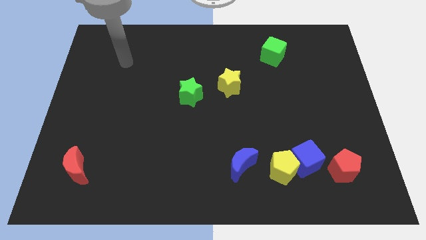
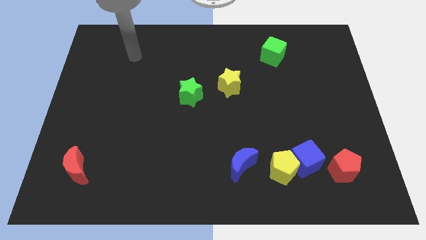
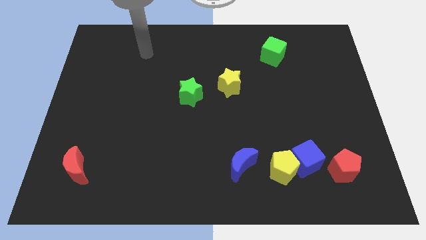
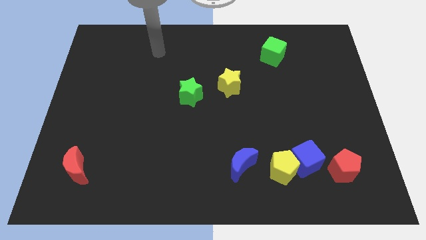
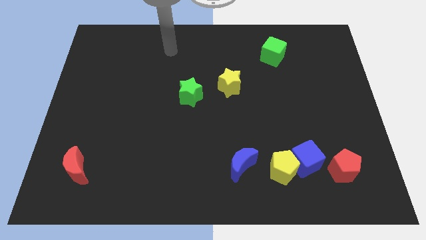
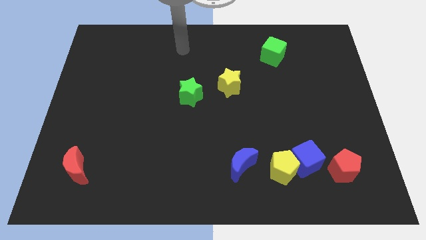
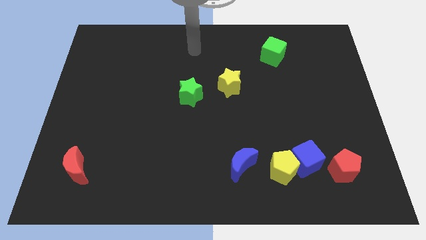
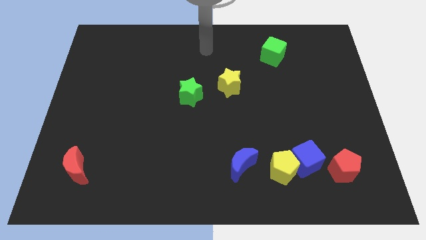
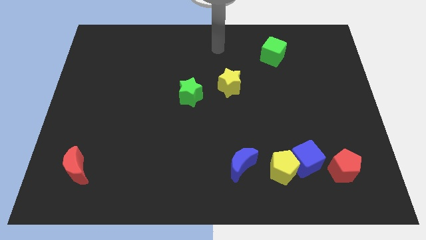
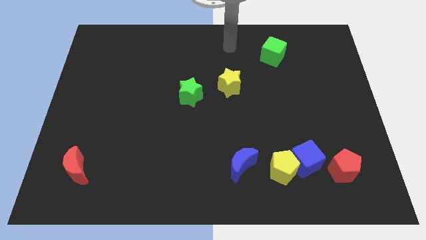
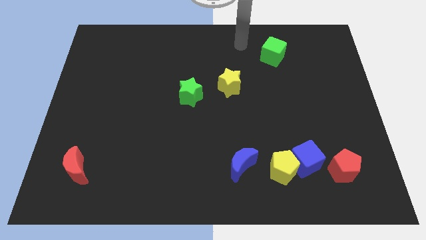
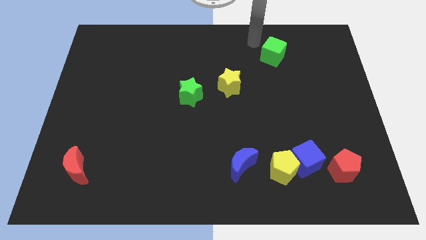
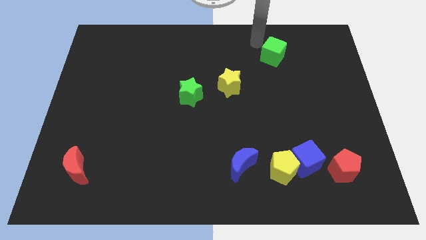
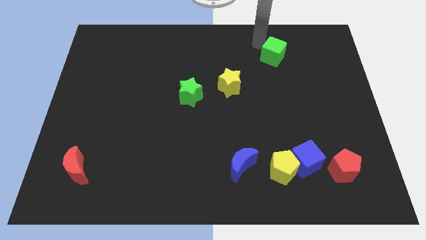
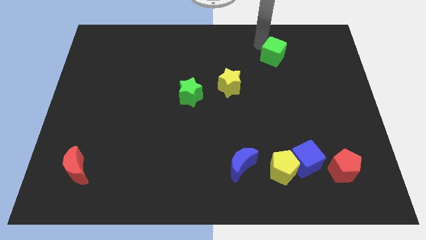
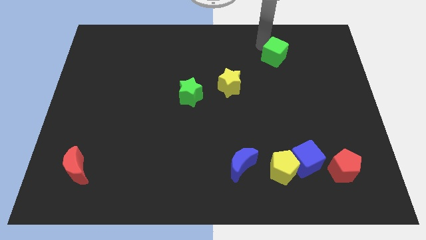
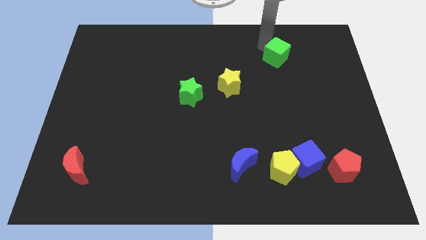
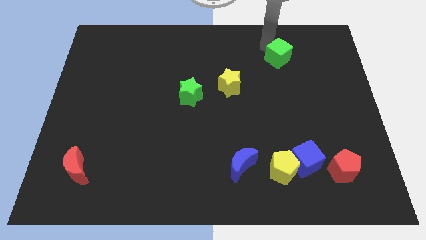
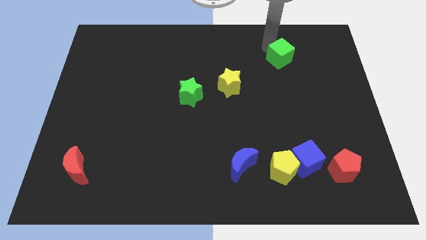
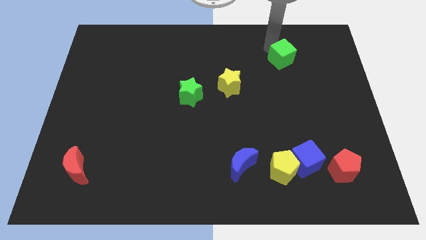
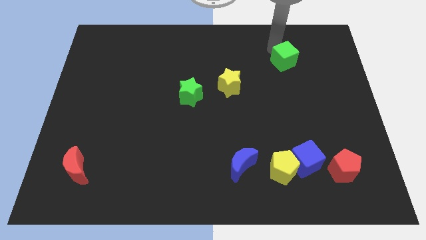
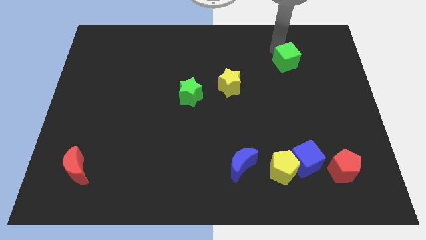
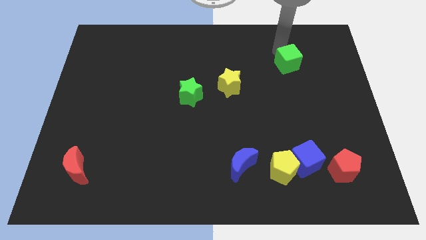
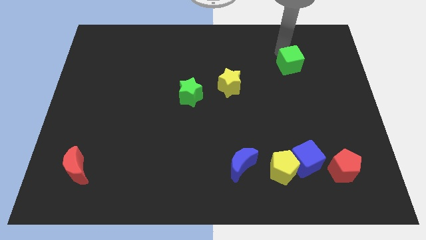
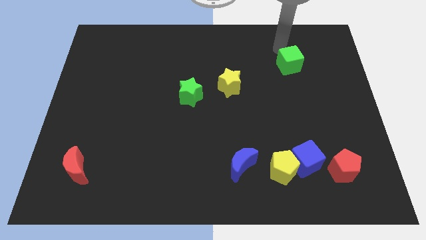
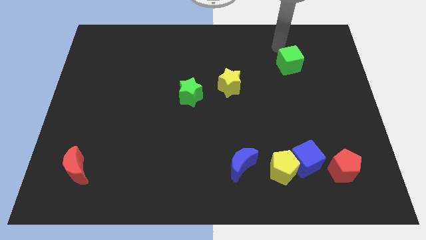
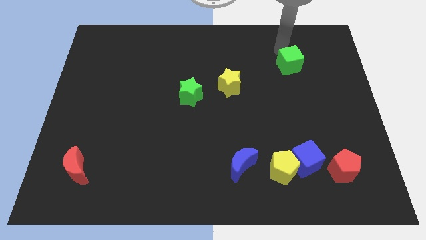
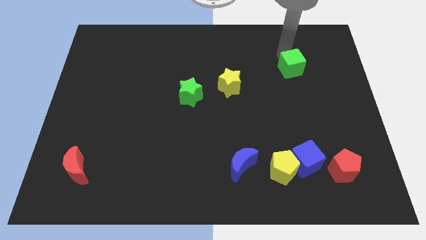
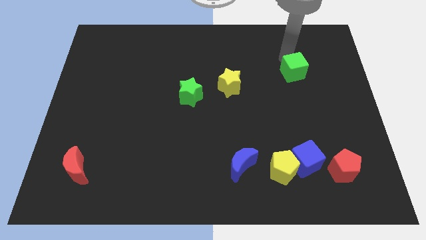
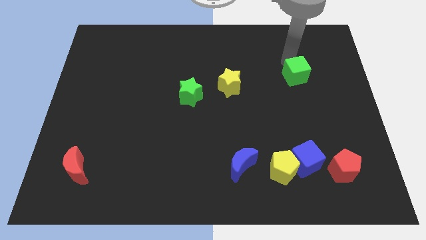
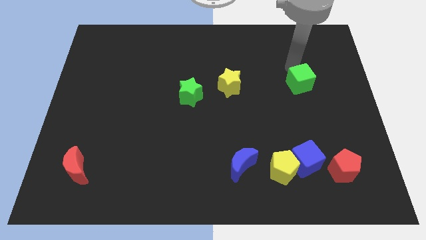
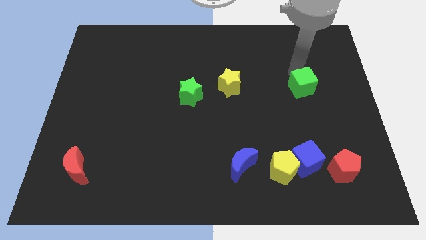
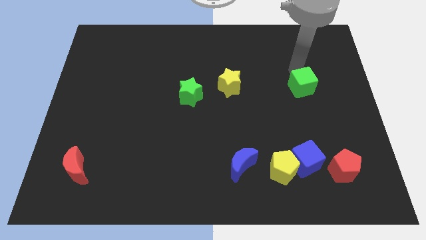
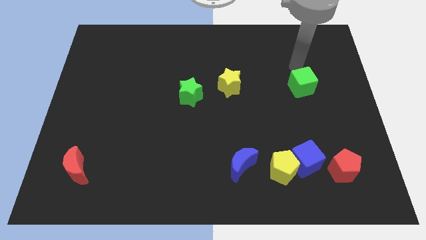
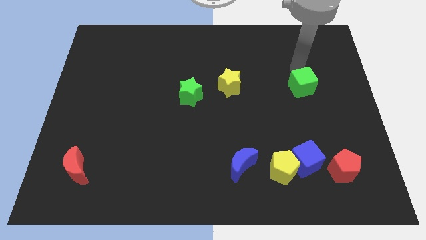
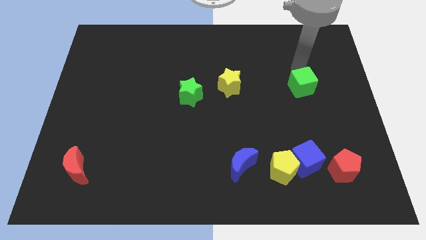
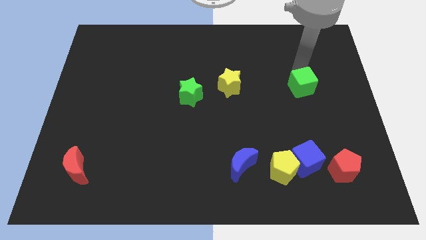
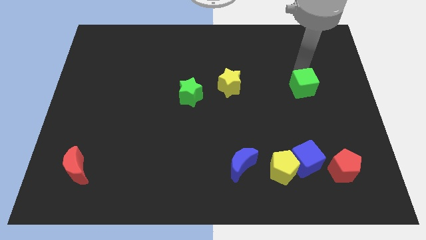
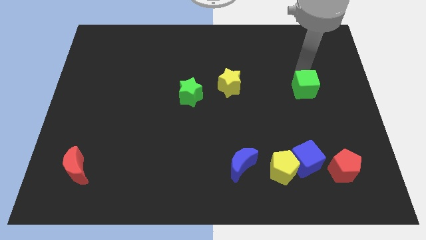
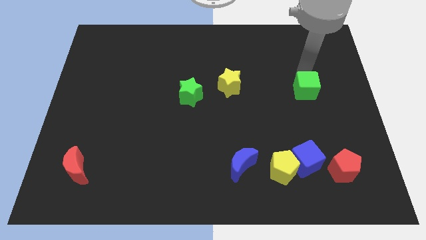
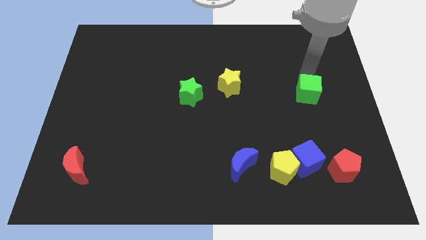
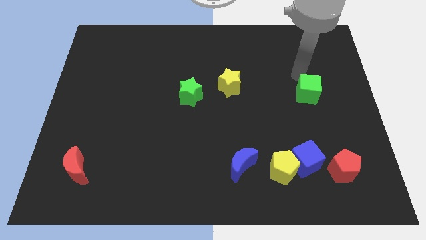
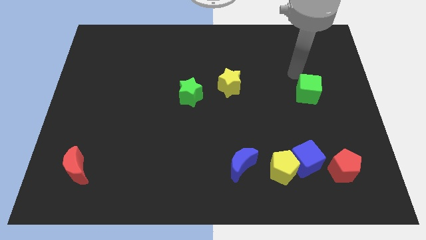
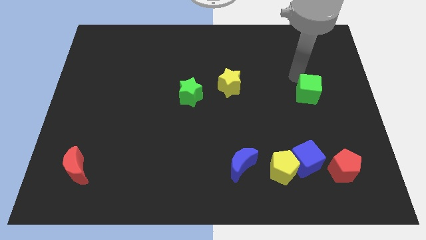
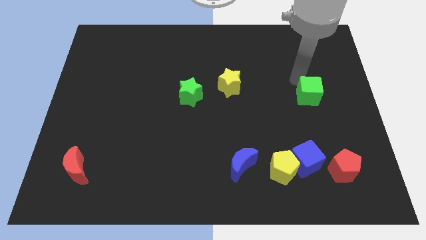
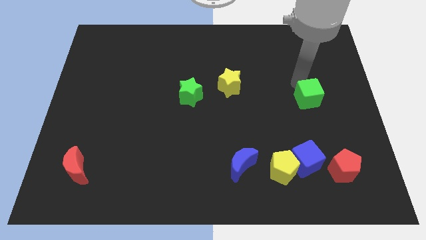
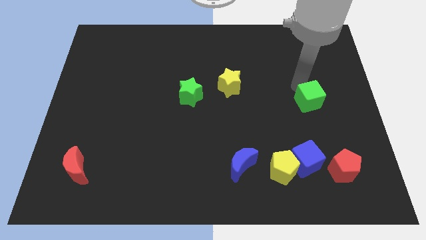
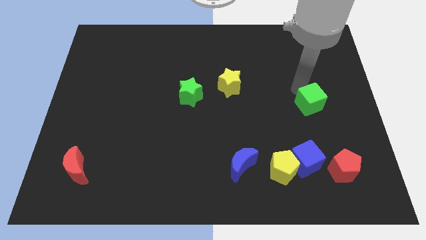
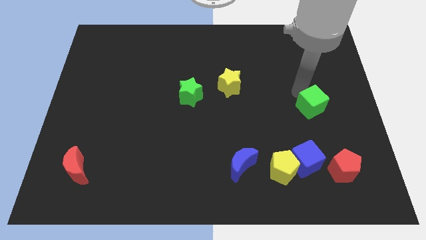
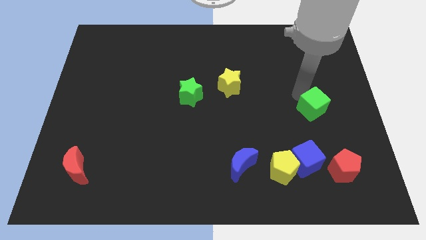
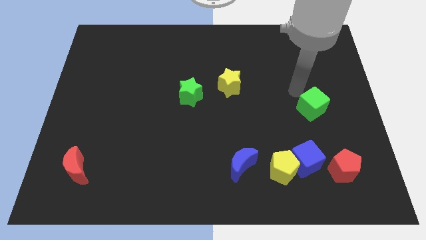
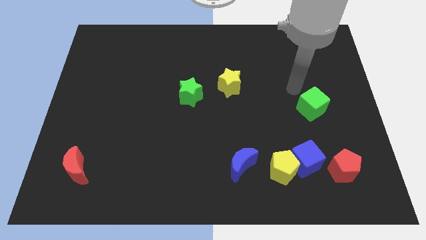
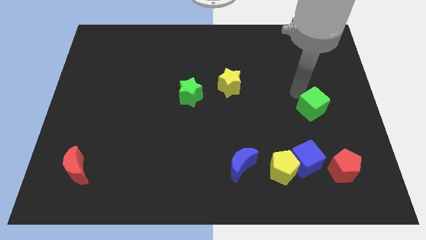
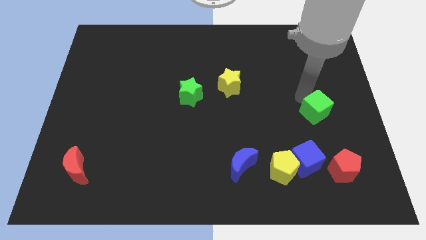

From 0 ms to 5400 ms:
push the green cube above the red pentagon

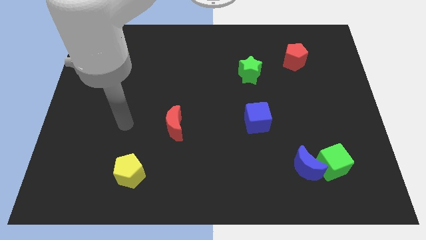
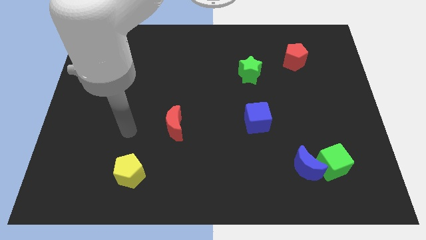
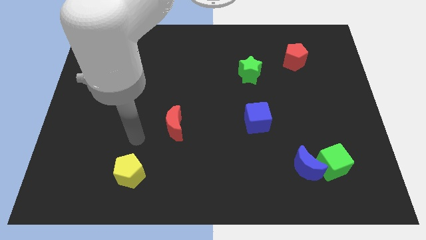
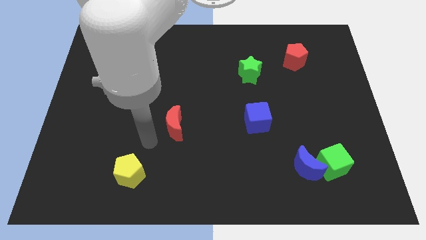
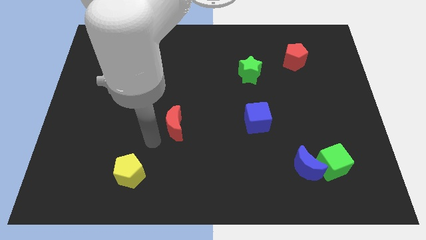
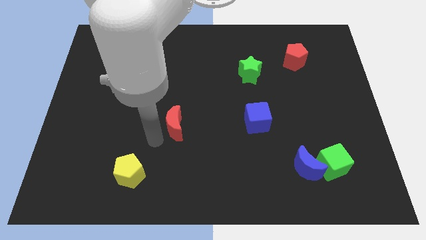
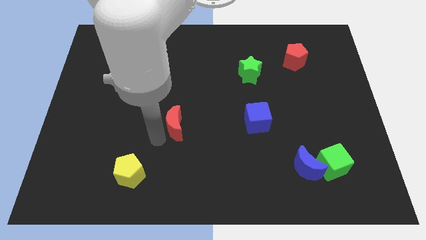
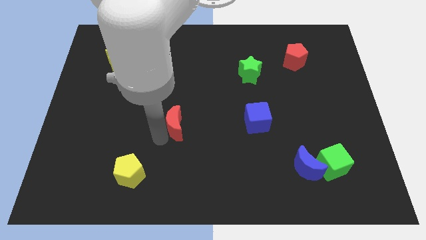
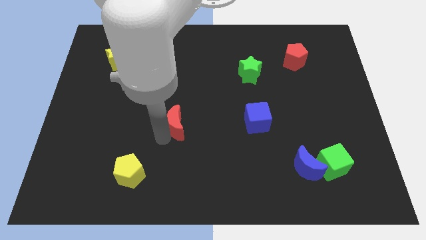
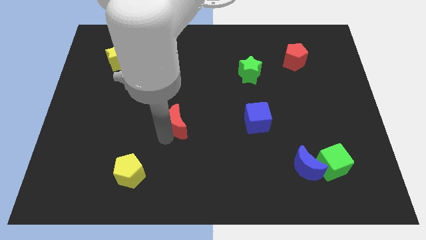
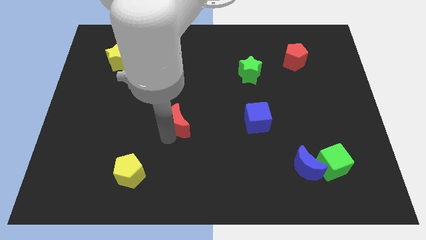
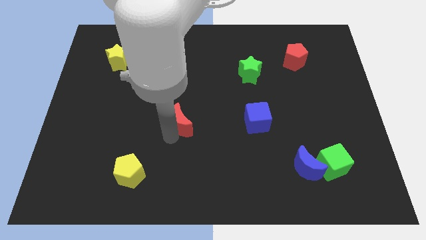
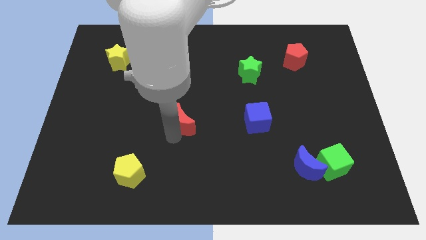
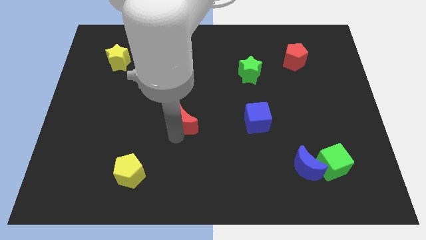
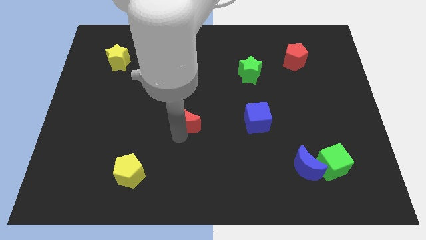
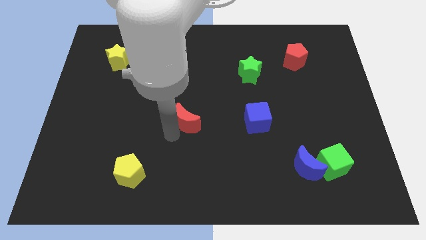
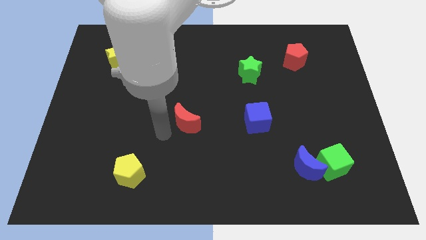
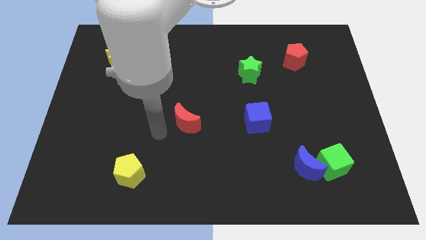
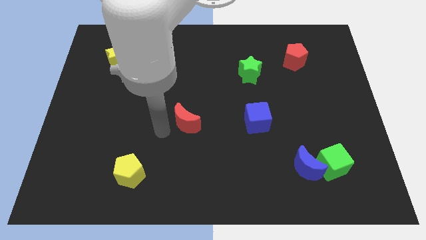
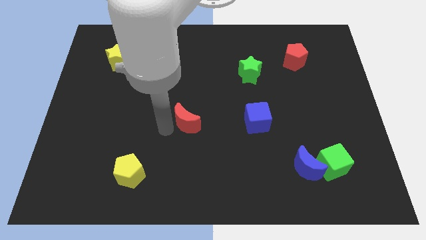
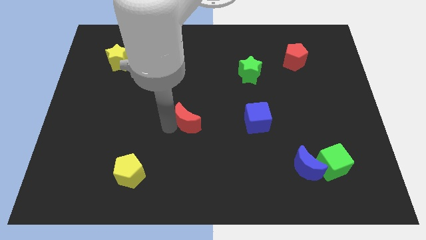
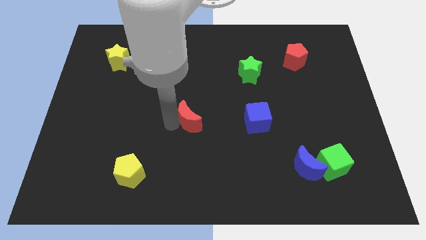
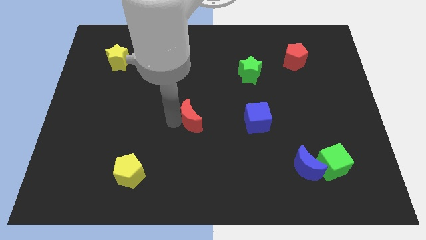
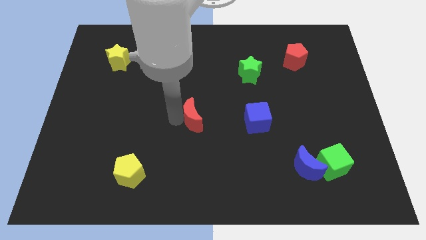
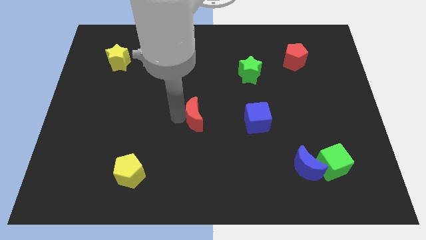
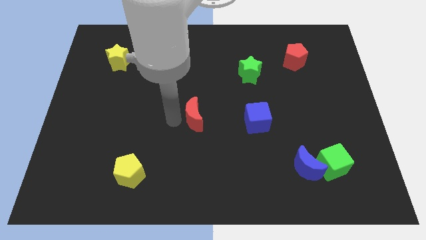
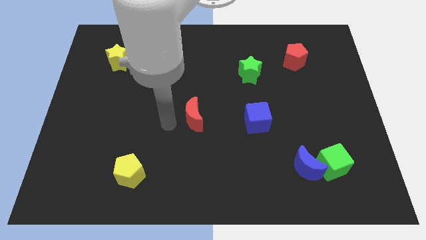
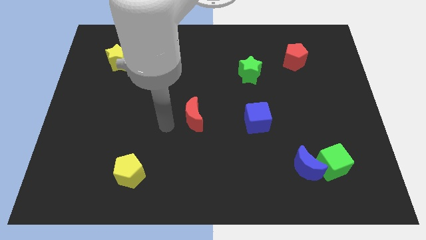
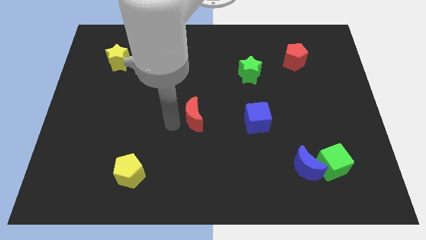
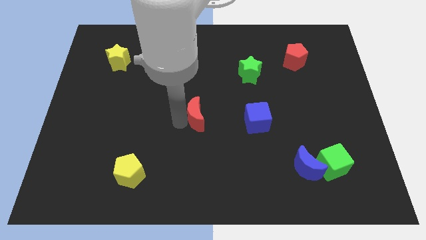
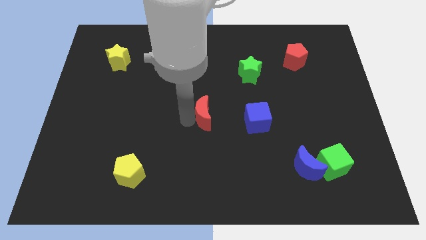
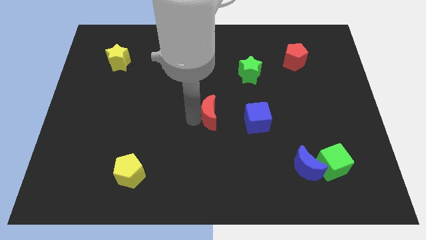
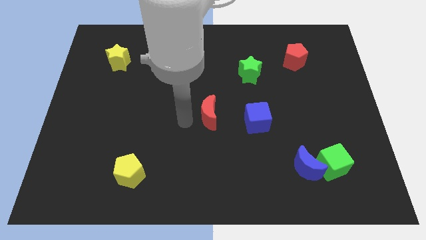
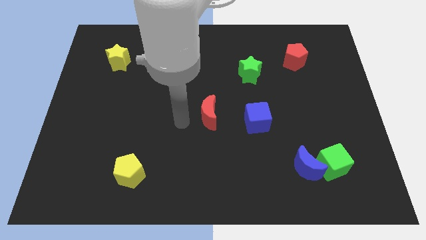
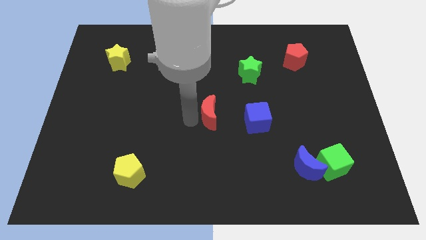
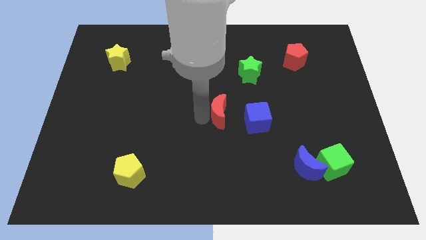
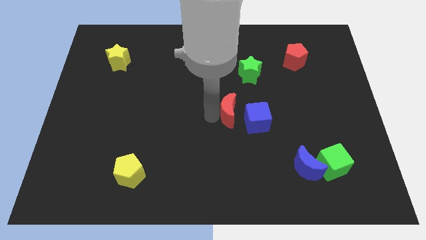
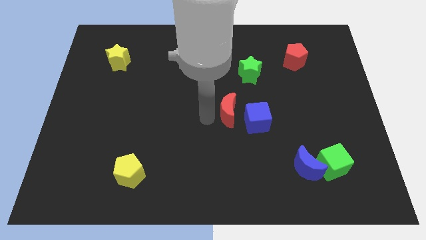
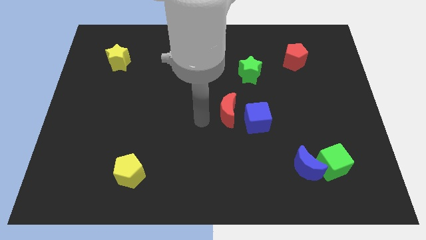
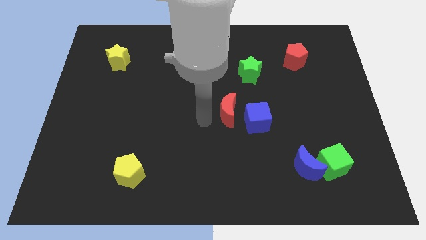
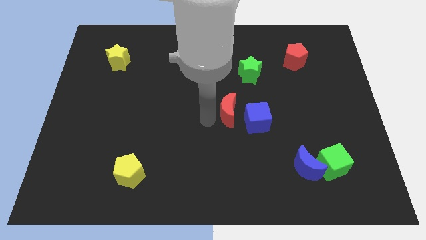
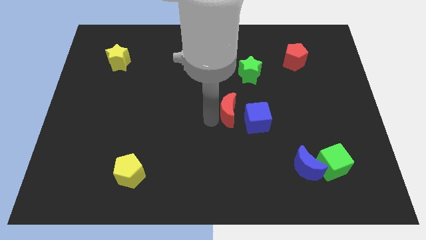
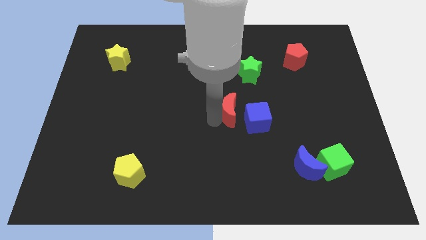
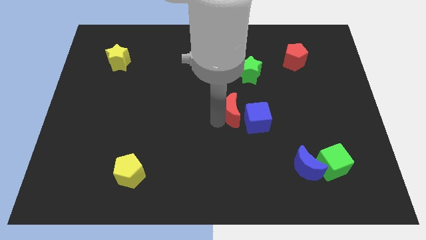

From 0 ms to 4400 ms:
push the red moon to the bottom of the green star
